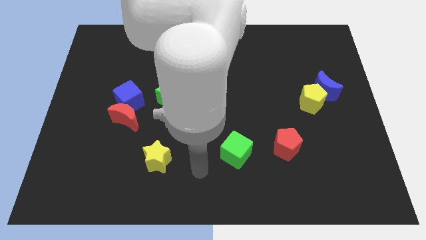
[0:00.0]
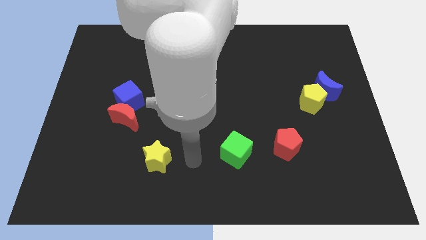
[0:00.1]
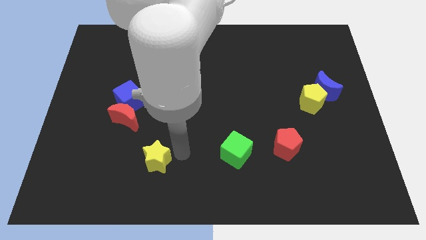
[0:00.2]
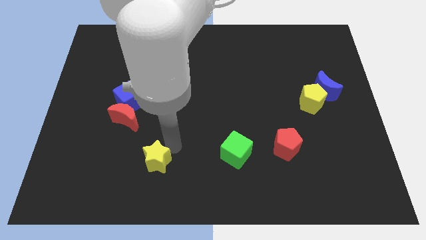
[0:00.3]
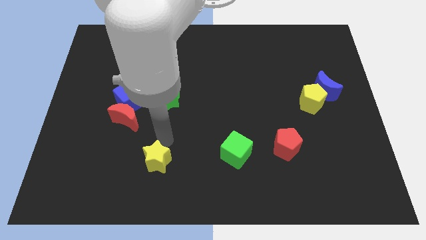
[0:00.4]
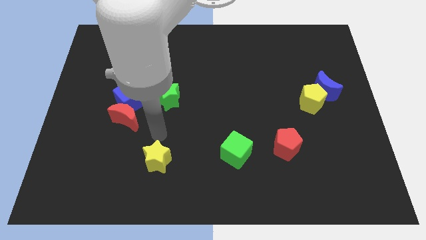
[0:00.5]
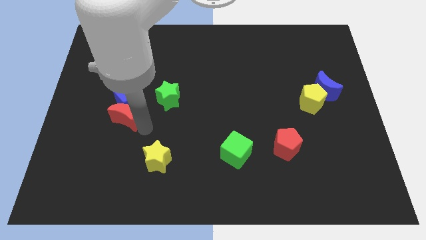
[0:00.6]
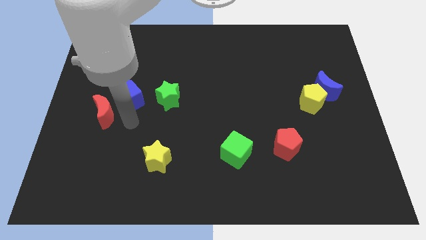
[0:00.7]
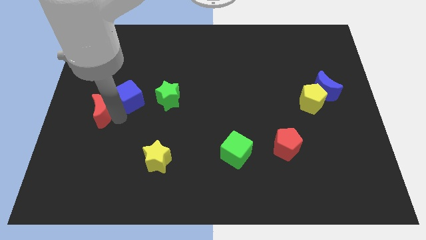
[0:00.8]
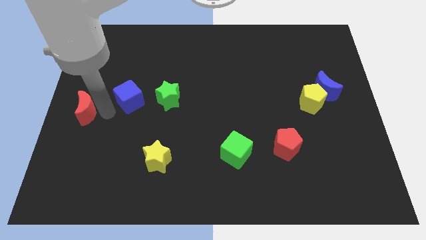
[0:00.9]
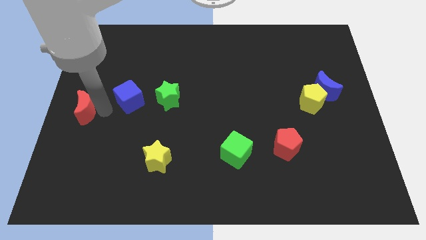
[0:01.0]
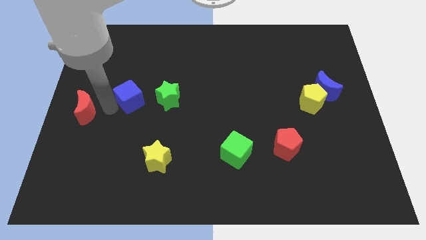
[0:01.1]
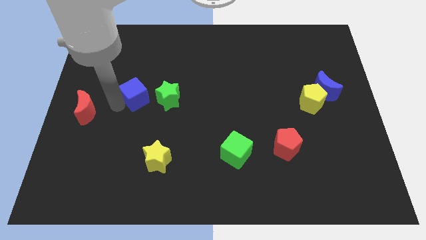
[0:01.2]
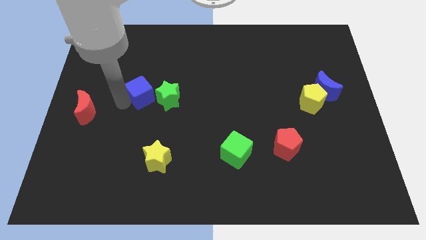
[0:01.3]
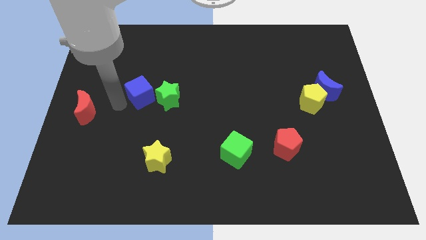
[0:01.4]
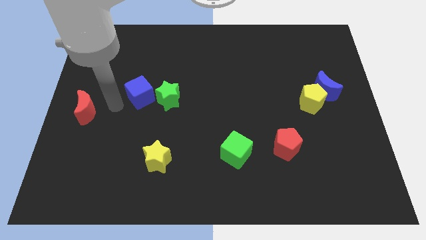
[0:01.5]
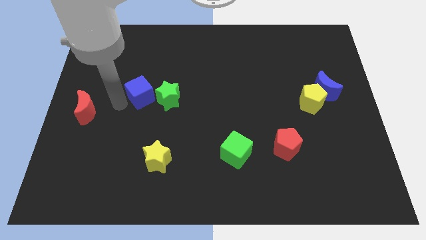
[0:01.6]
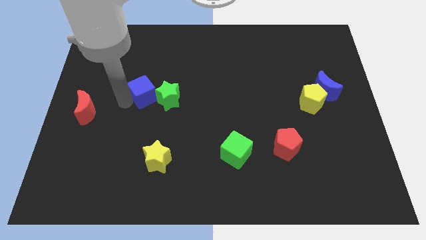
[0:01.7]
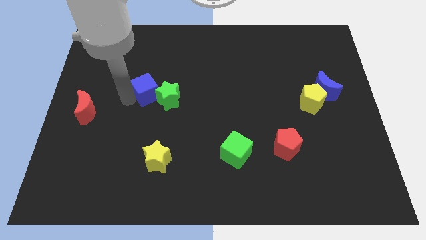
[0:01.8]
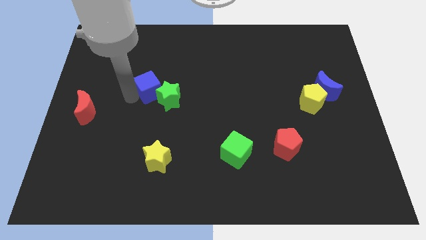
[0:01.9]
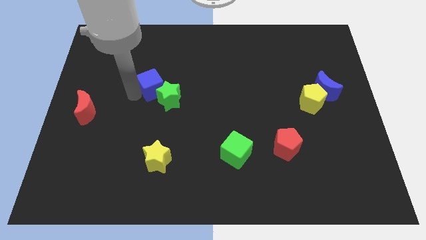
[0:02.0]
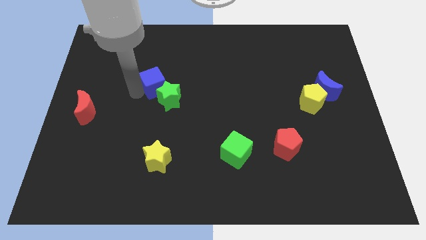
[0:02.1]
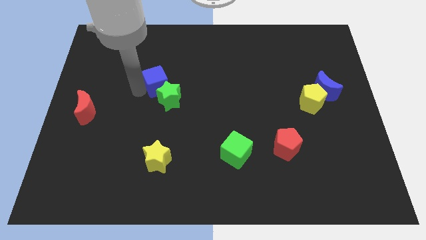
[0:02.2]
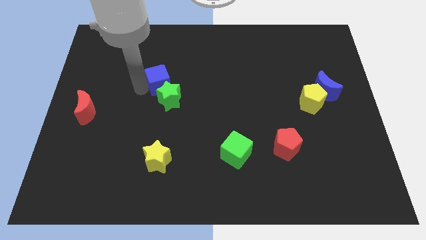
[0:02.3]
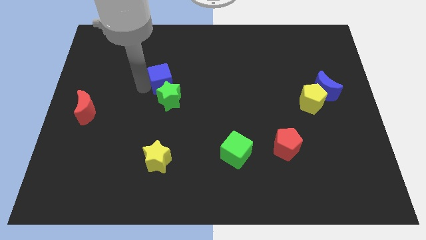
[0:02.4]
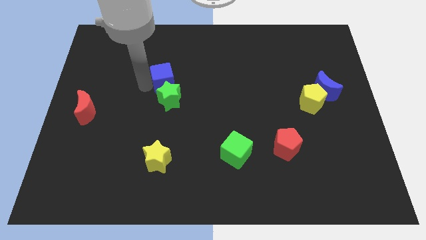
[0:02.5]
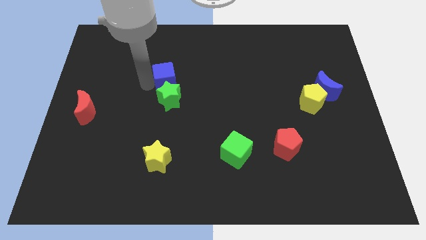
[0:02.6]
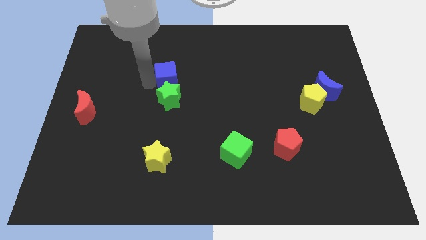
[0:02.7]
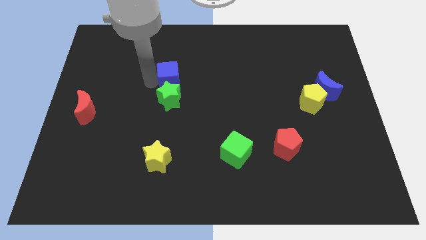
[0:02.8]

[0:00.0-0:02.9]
move the blue cube slightly right

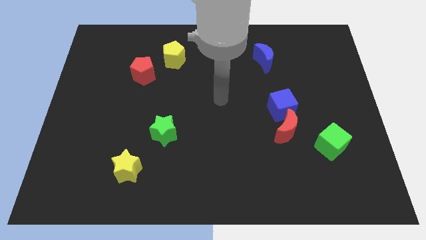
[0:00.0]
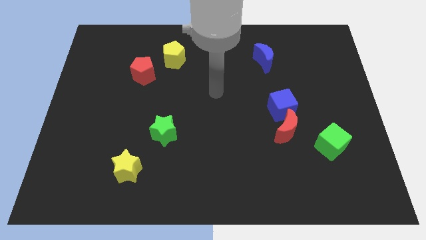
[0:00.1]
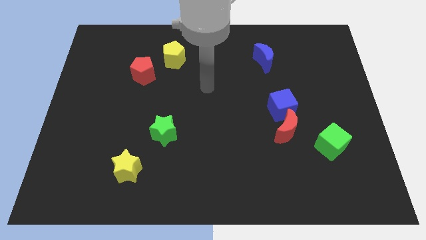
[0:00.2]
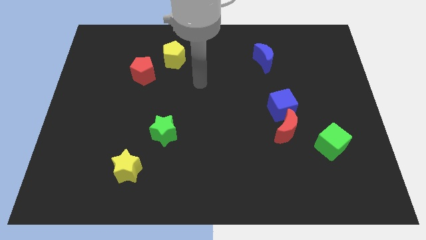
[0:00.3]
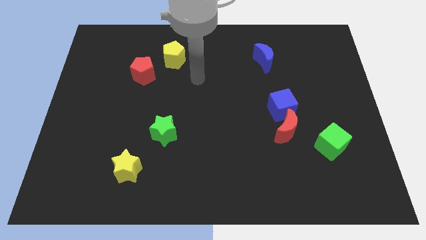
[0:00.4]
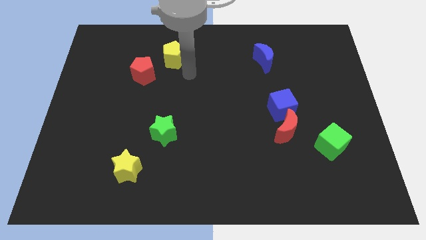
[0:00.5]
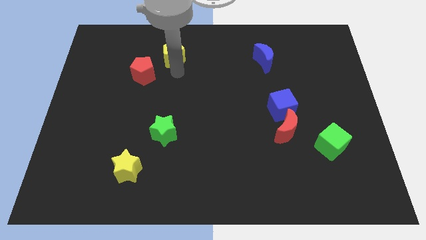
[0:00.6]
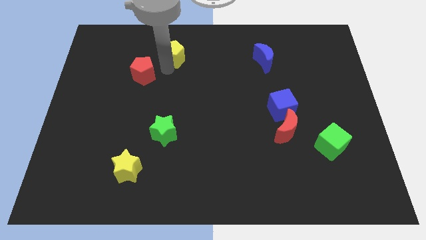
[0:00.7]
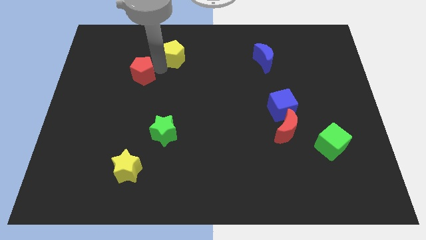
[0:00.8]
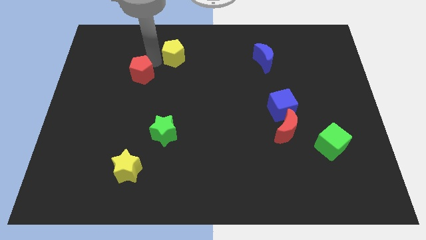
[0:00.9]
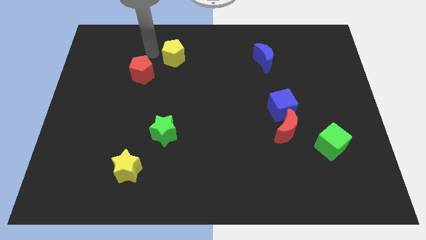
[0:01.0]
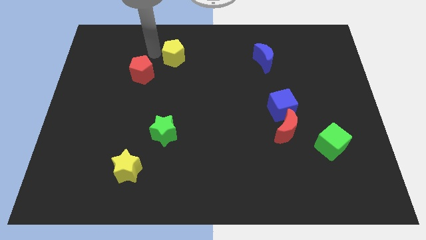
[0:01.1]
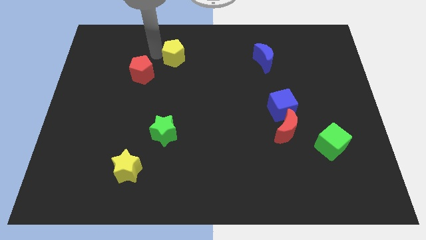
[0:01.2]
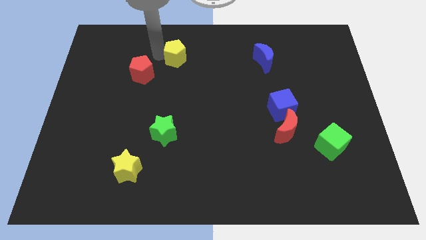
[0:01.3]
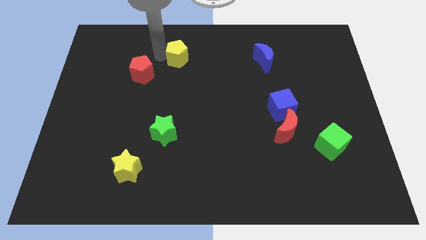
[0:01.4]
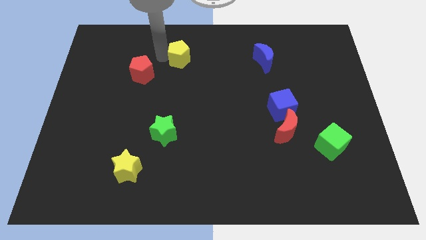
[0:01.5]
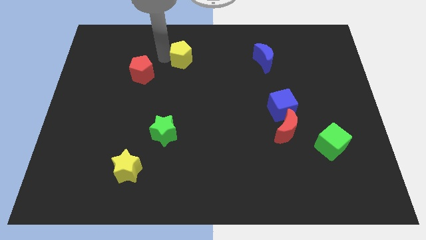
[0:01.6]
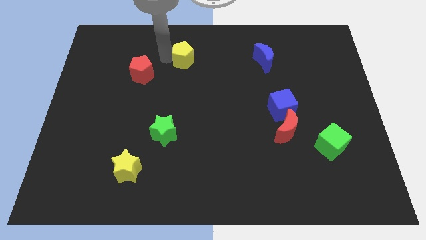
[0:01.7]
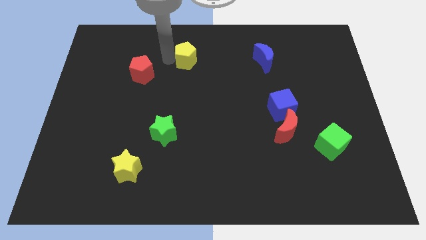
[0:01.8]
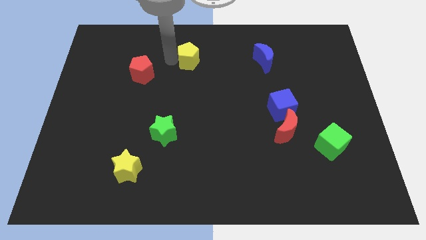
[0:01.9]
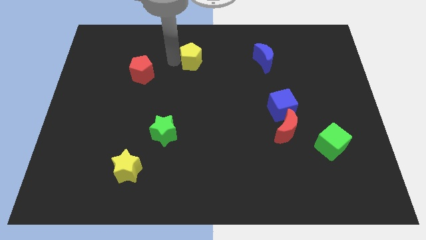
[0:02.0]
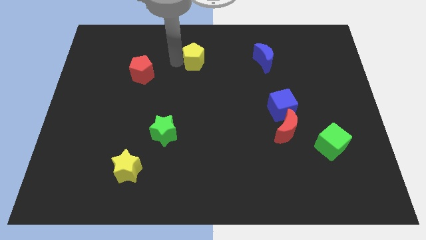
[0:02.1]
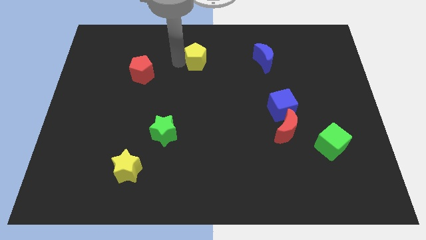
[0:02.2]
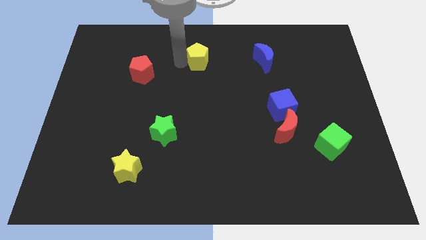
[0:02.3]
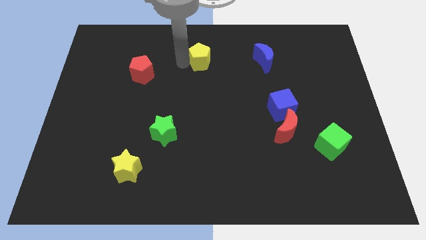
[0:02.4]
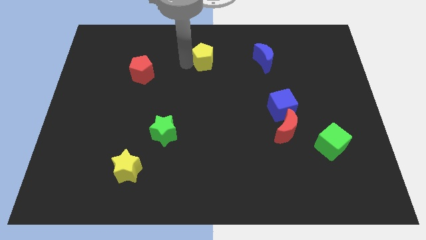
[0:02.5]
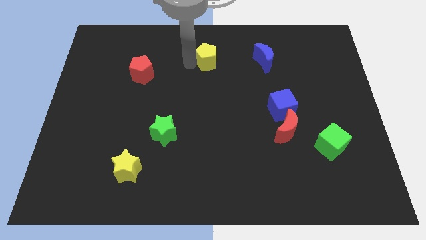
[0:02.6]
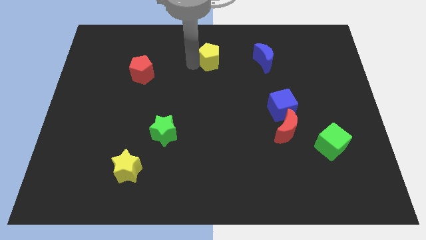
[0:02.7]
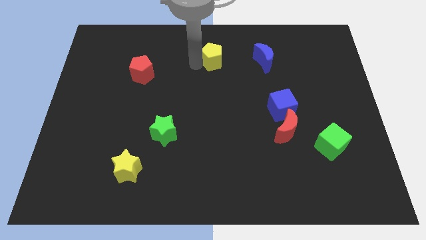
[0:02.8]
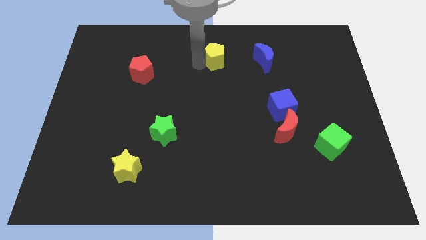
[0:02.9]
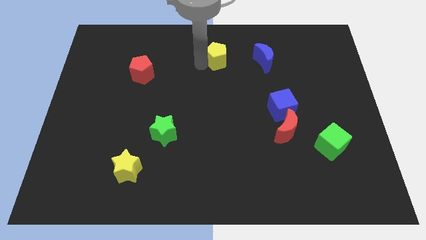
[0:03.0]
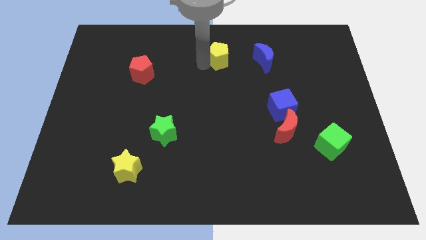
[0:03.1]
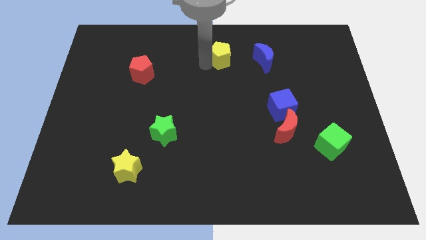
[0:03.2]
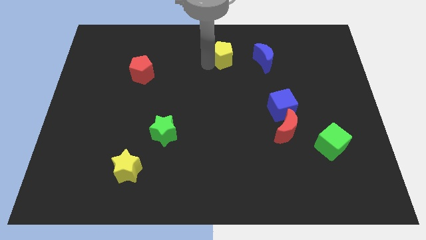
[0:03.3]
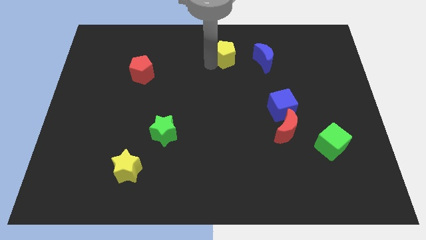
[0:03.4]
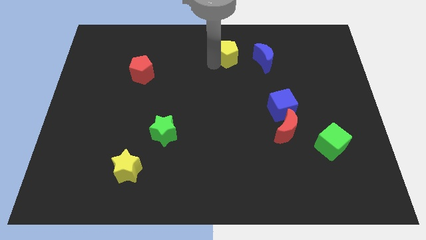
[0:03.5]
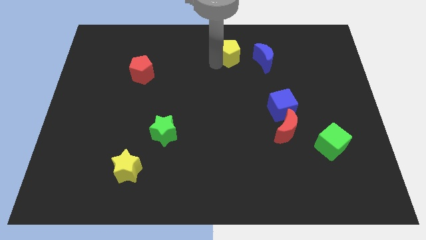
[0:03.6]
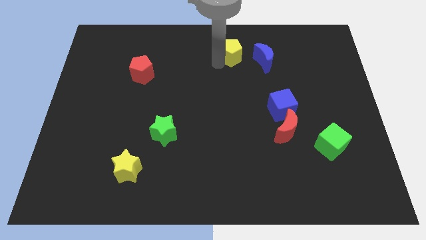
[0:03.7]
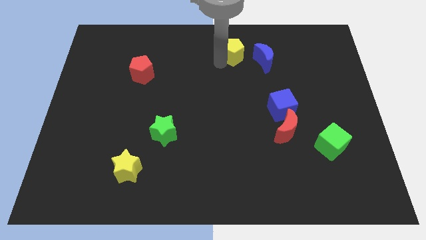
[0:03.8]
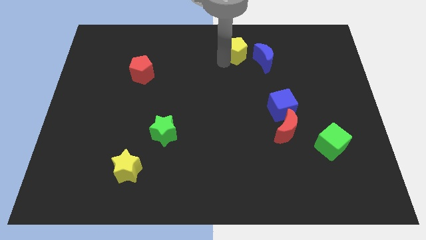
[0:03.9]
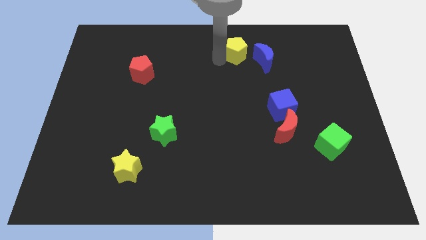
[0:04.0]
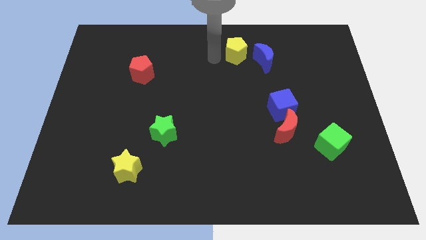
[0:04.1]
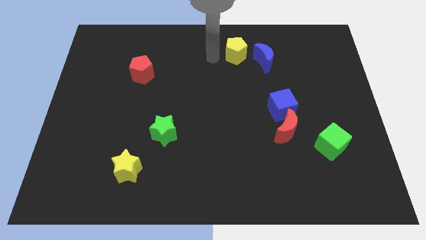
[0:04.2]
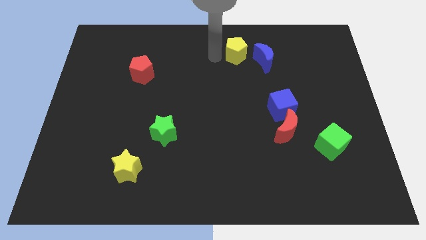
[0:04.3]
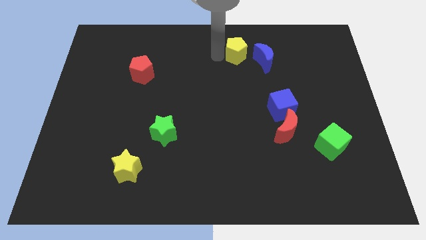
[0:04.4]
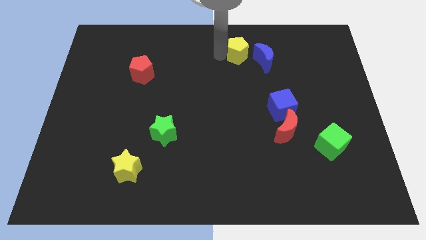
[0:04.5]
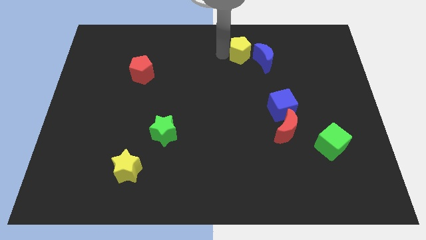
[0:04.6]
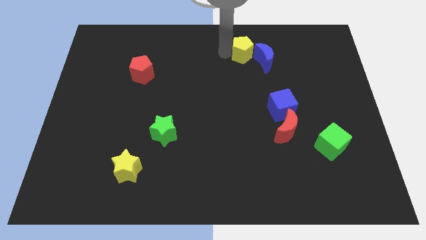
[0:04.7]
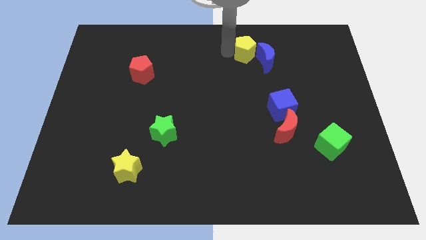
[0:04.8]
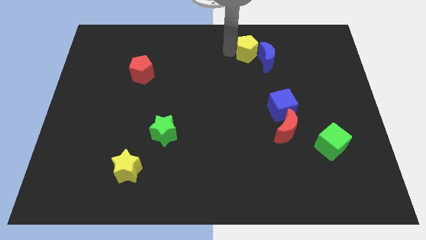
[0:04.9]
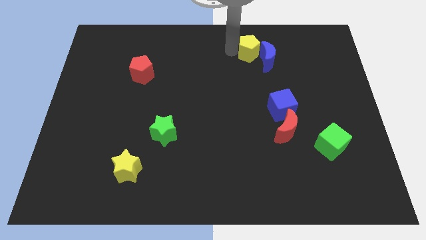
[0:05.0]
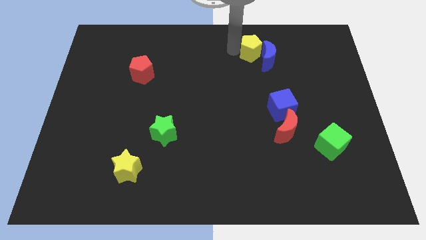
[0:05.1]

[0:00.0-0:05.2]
slide the yellow pentagon right
